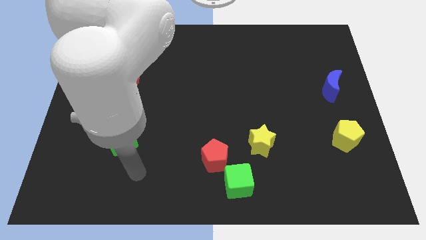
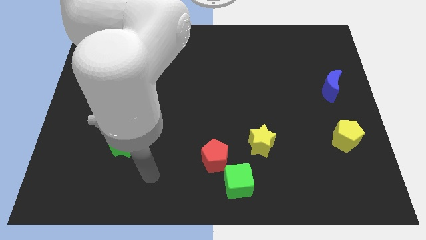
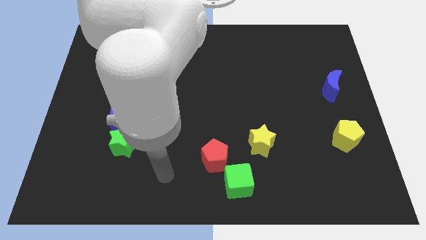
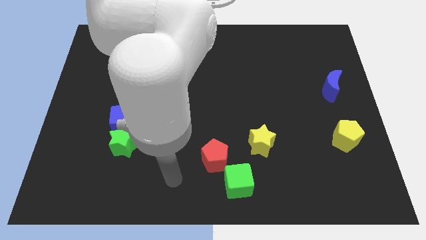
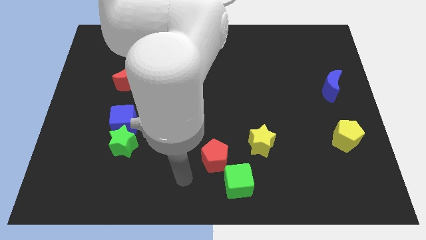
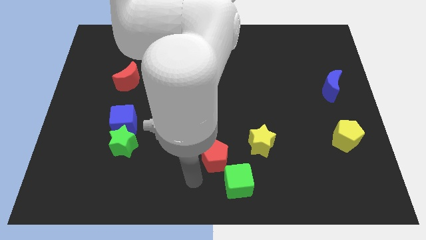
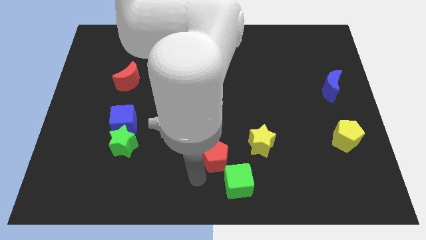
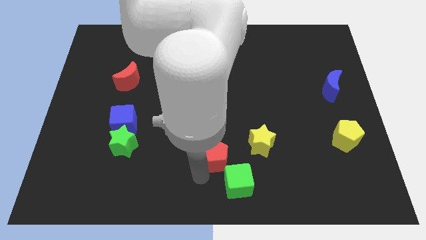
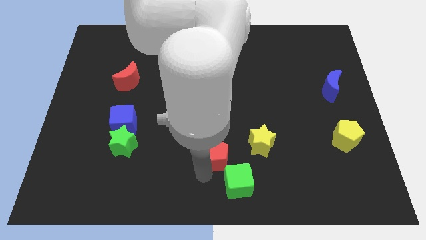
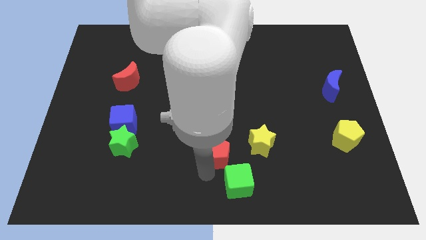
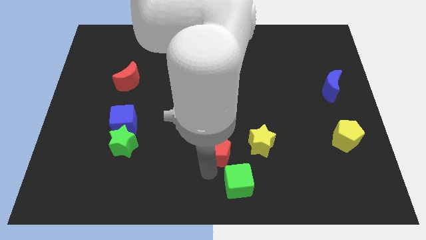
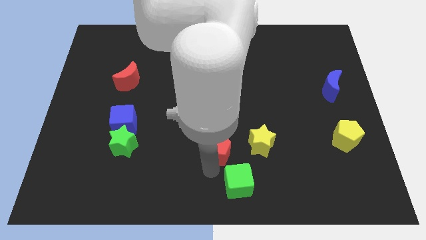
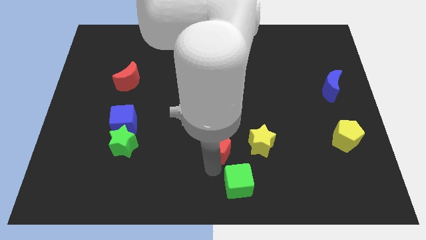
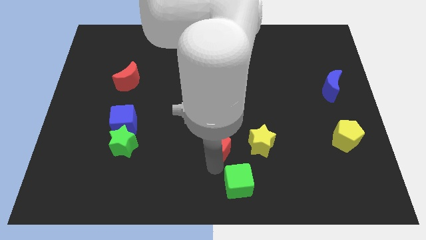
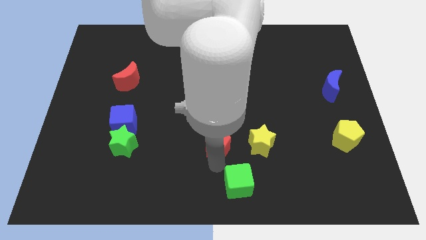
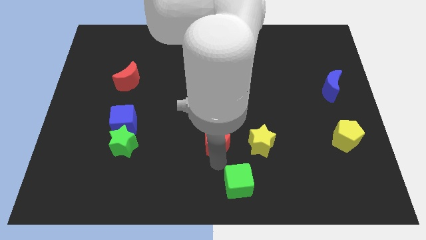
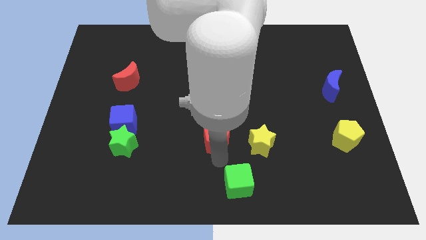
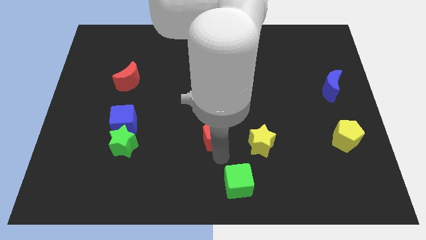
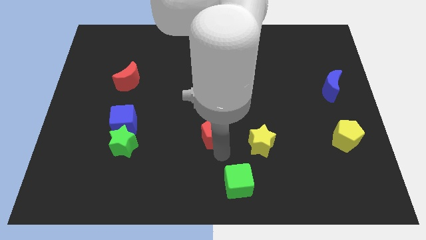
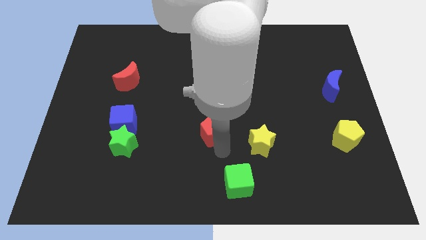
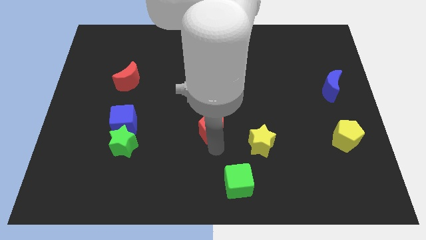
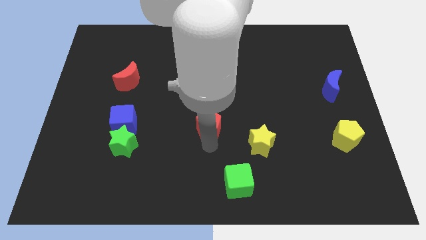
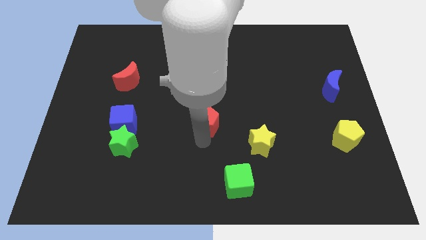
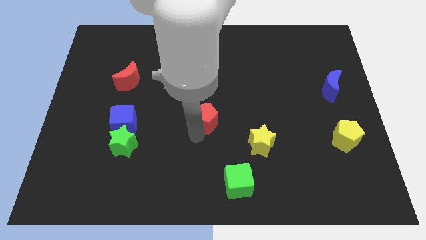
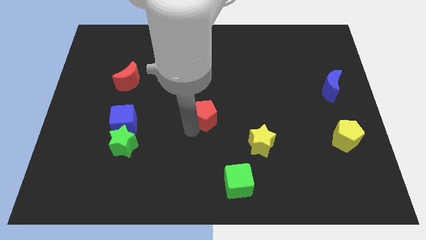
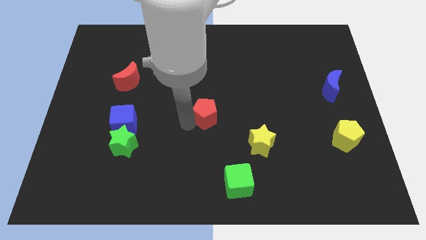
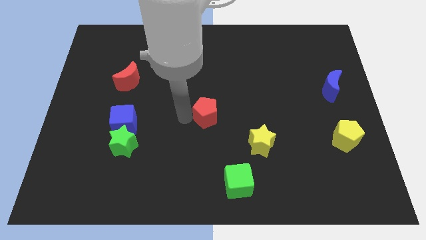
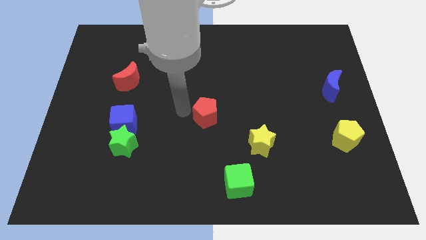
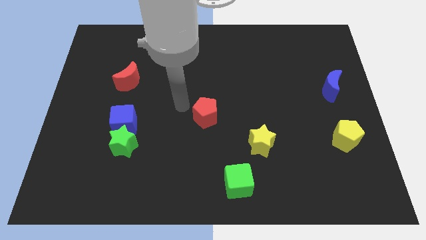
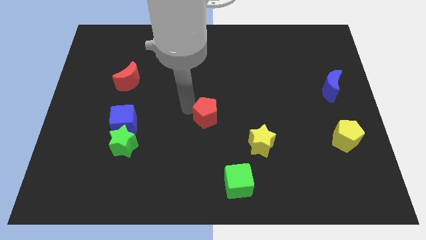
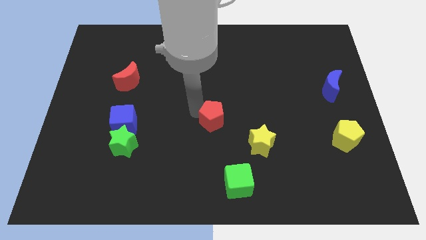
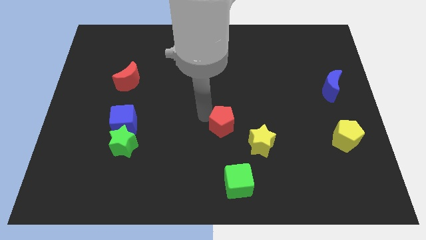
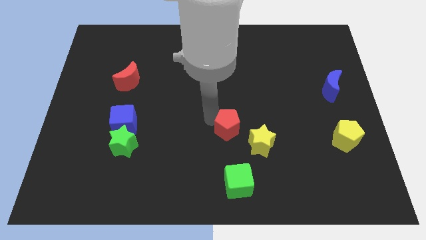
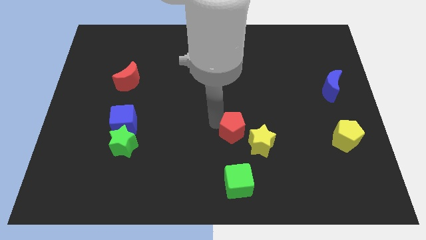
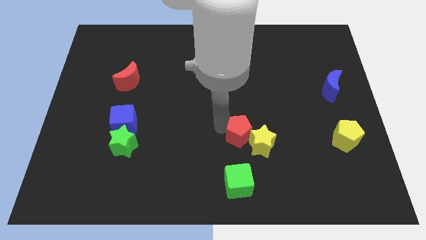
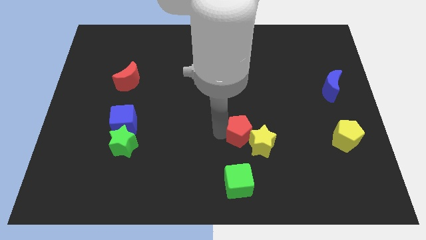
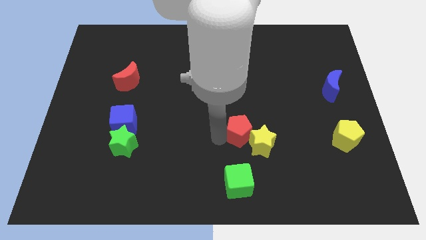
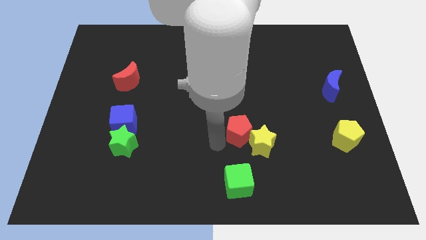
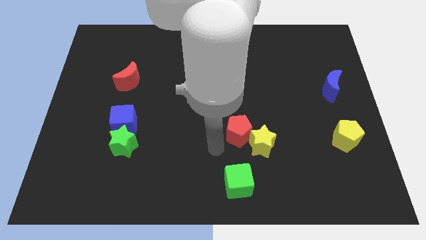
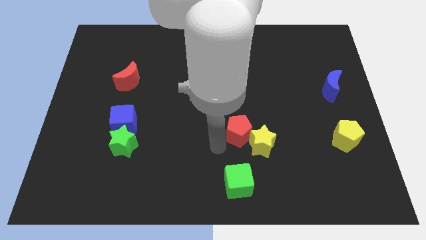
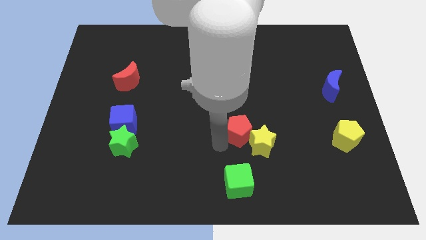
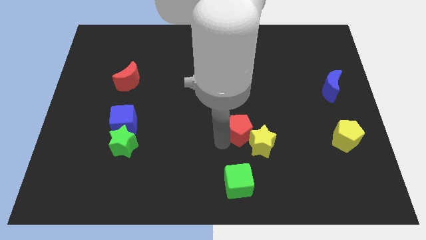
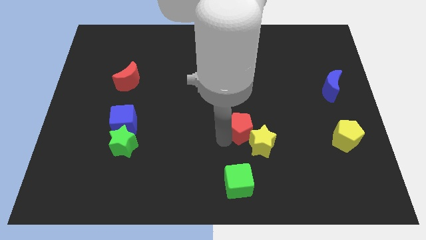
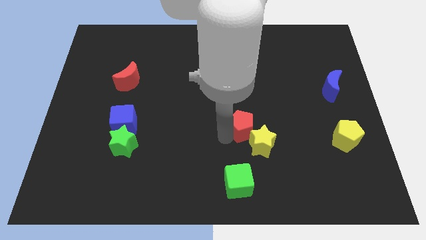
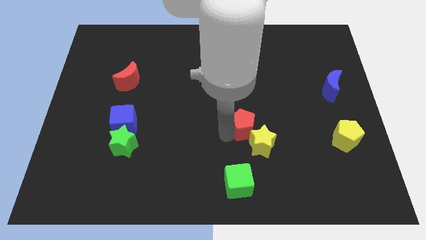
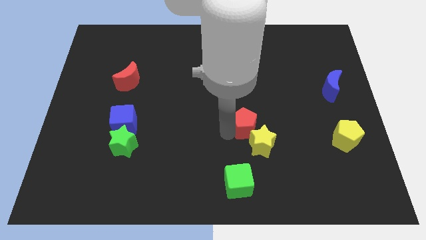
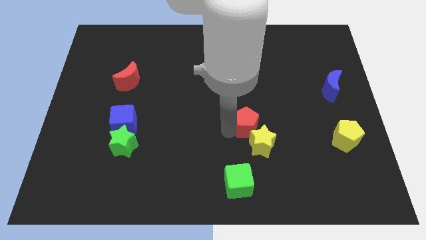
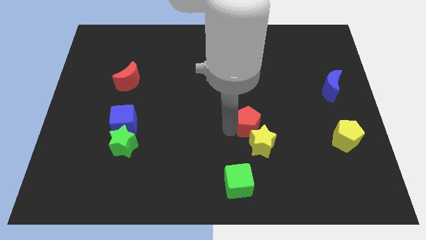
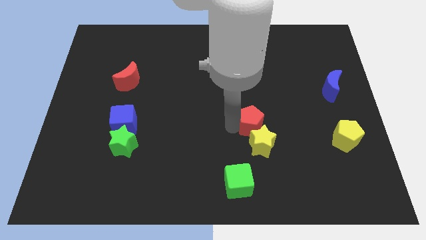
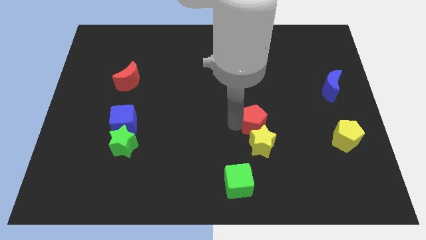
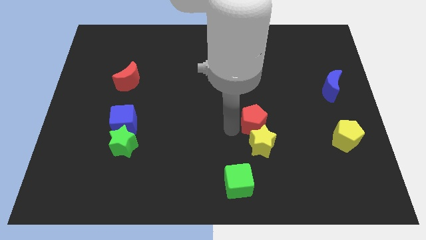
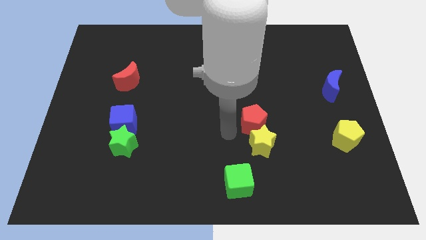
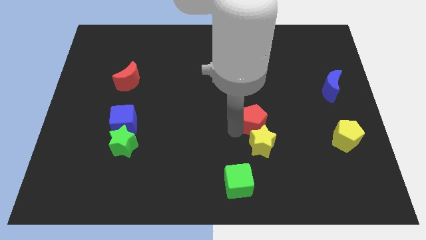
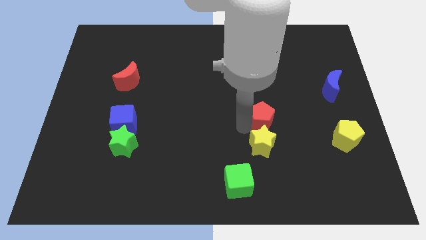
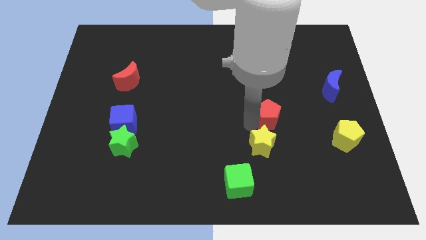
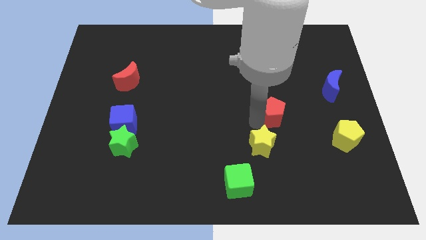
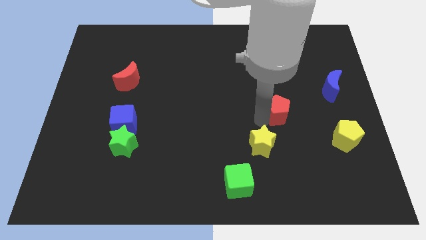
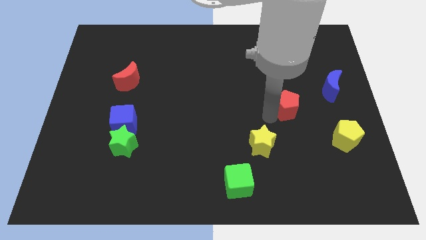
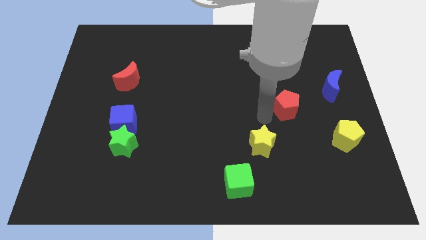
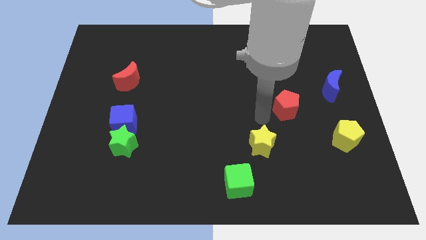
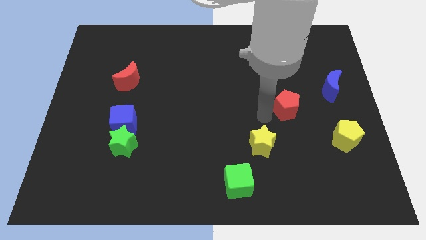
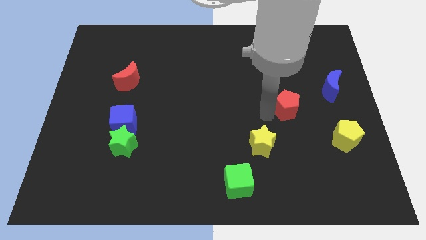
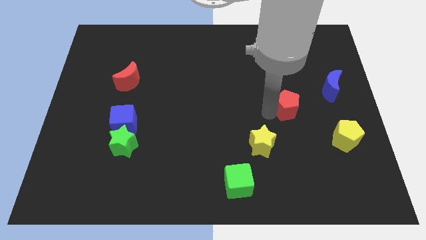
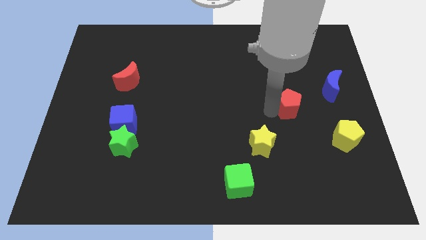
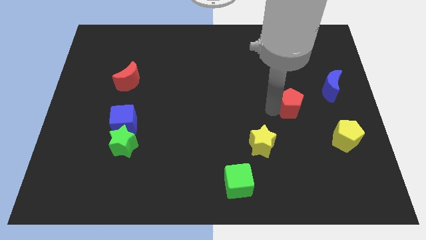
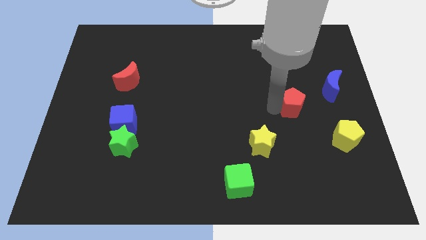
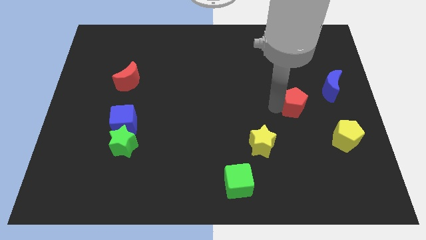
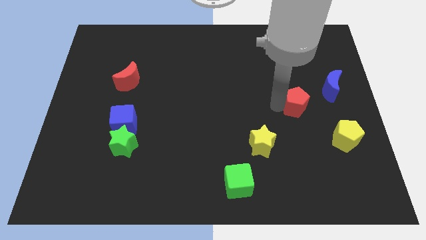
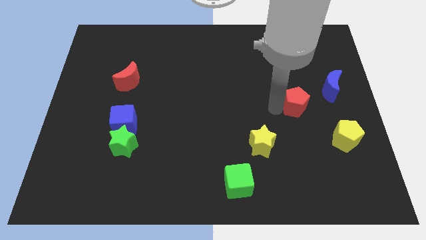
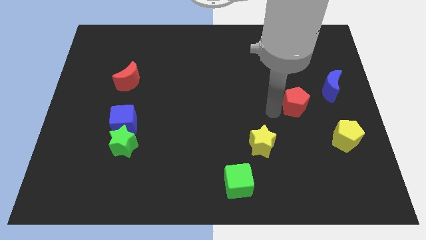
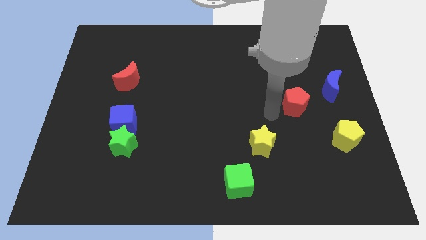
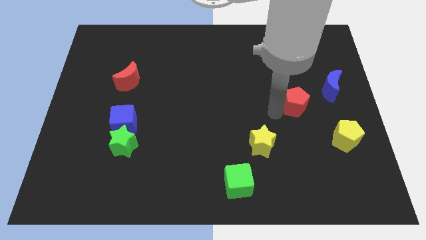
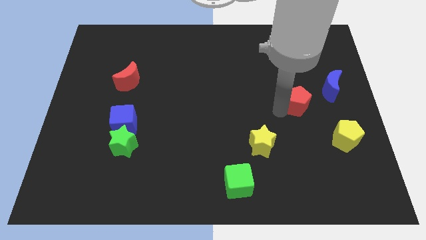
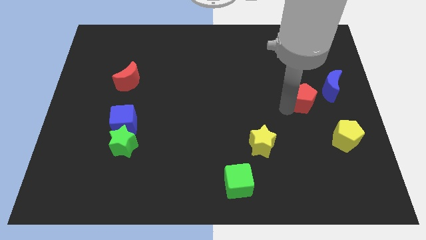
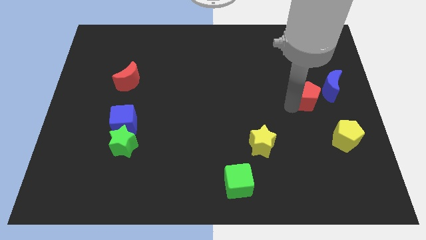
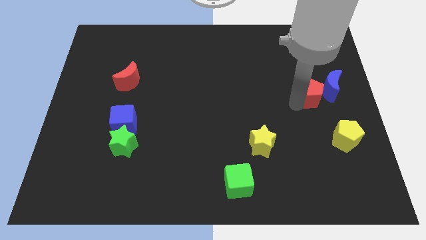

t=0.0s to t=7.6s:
slide the red pentagon towards the blue moon
